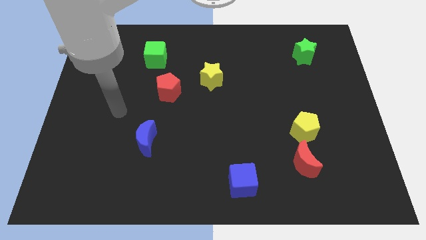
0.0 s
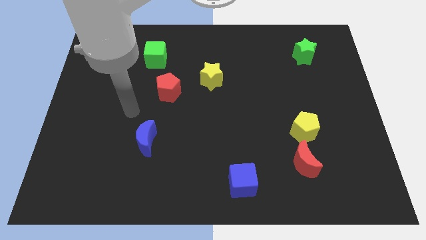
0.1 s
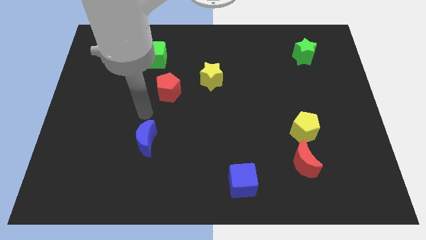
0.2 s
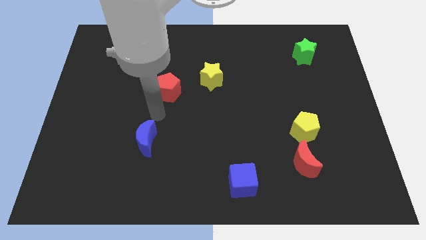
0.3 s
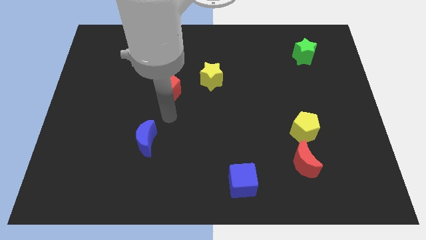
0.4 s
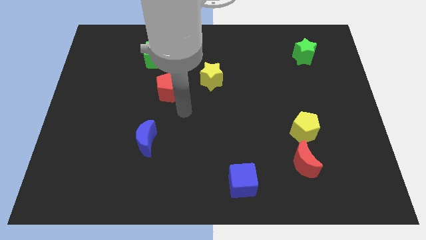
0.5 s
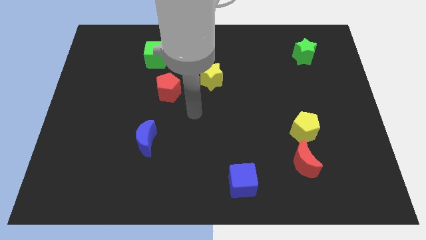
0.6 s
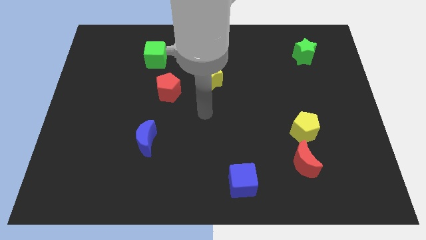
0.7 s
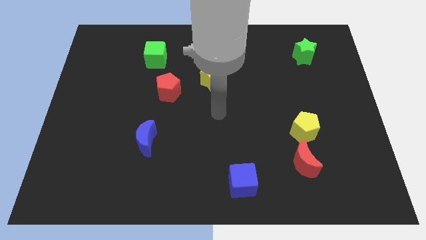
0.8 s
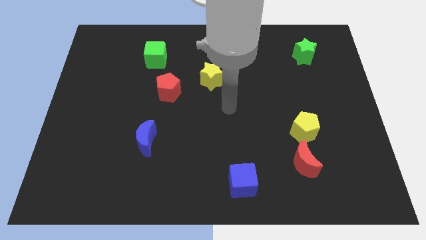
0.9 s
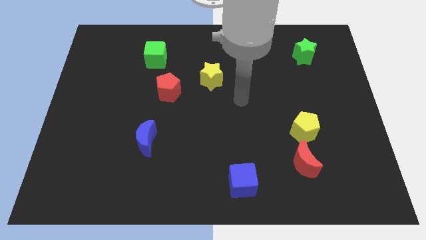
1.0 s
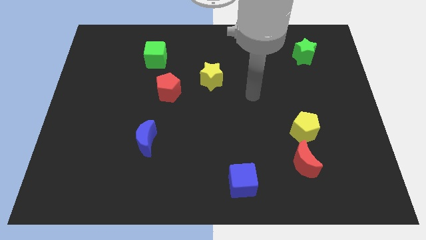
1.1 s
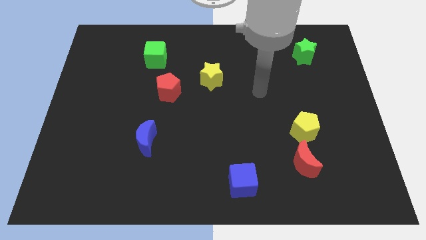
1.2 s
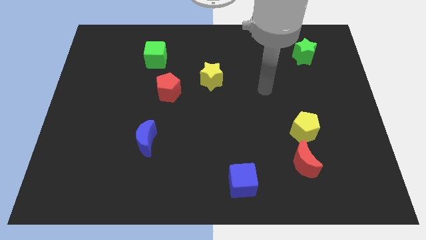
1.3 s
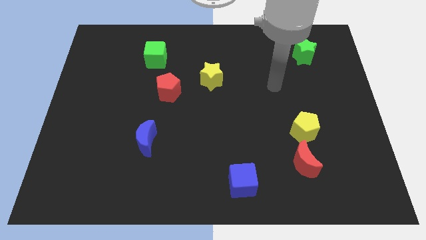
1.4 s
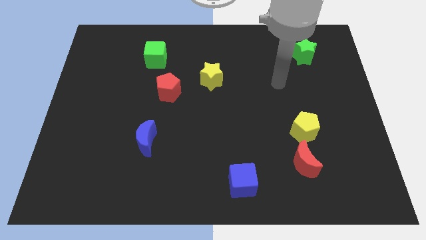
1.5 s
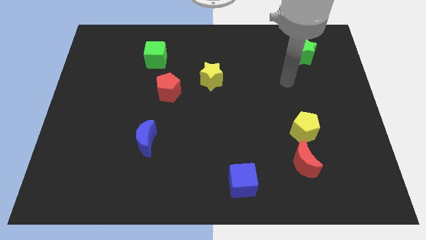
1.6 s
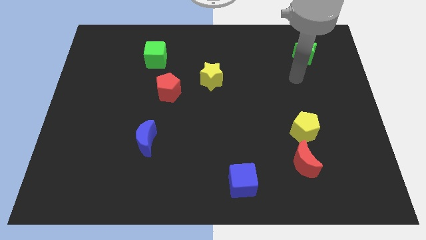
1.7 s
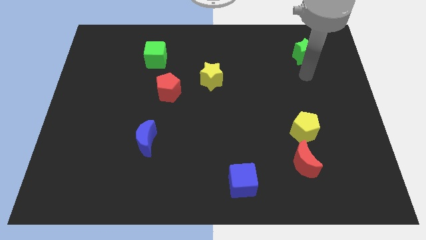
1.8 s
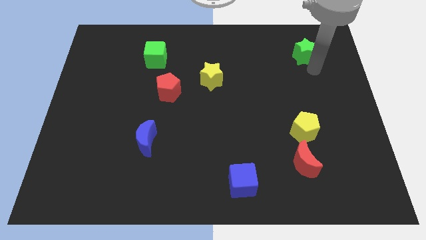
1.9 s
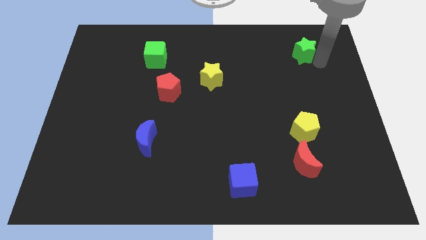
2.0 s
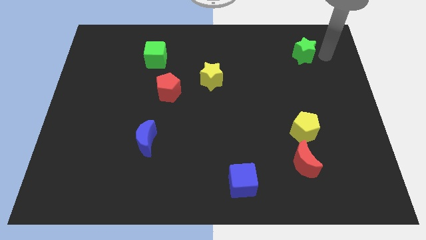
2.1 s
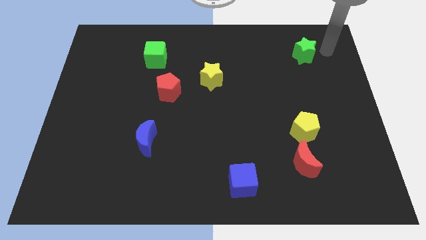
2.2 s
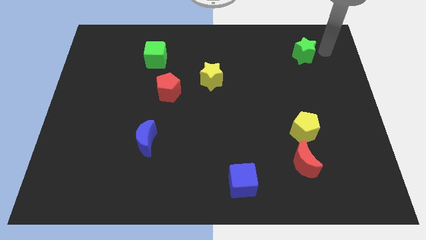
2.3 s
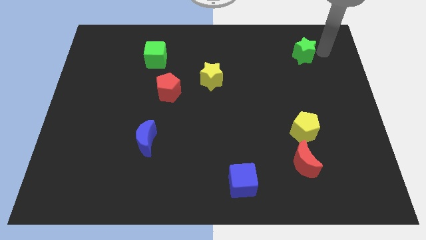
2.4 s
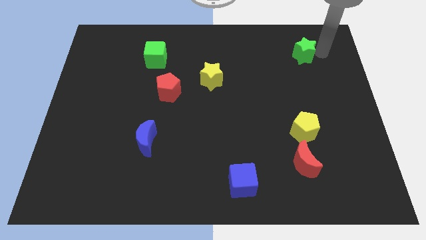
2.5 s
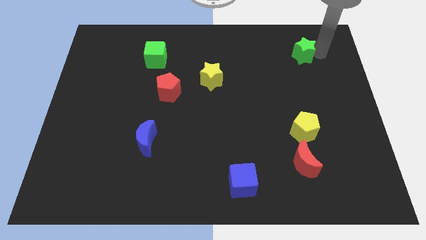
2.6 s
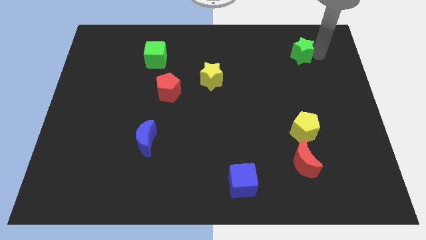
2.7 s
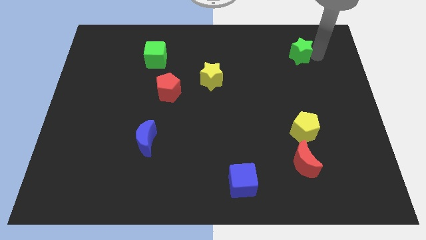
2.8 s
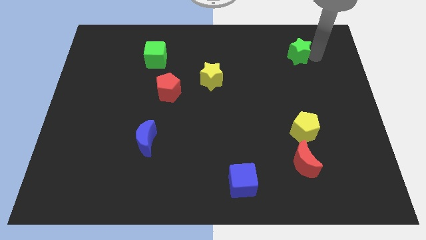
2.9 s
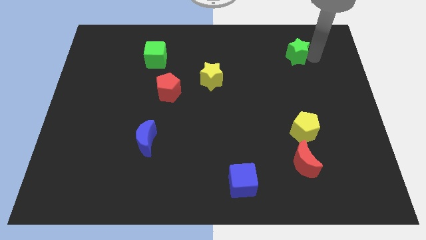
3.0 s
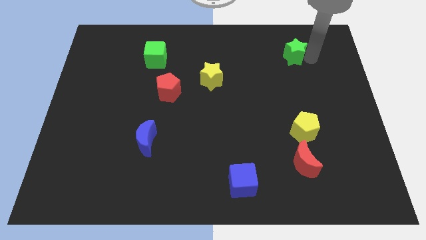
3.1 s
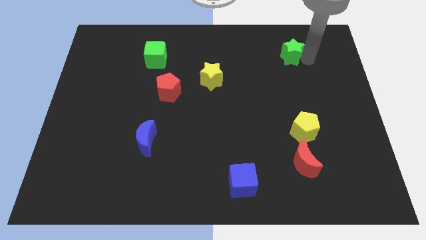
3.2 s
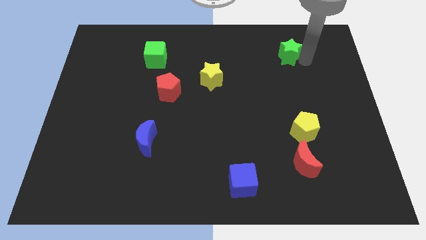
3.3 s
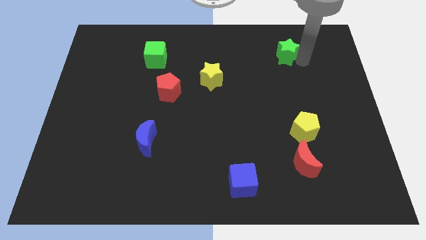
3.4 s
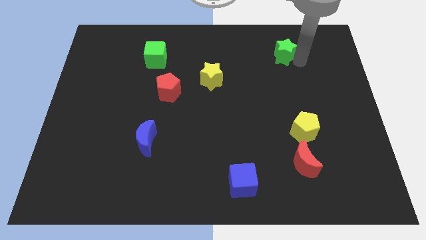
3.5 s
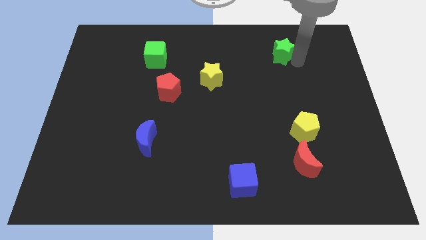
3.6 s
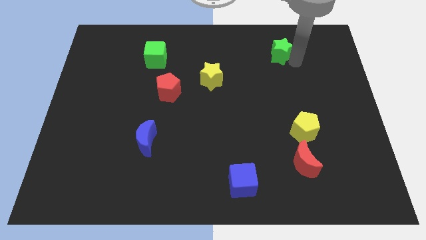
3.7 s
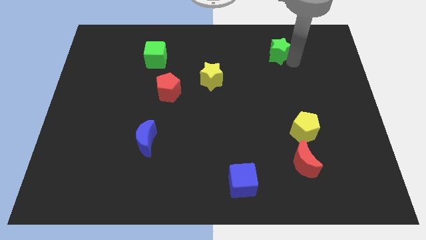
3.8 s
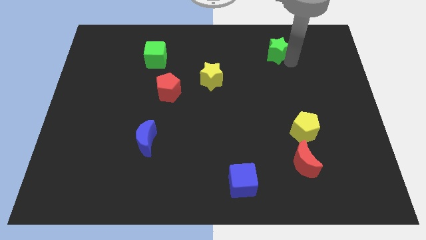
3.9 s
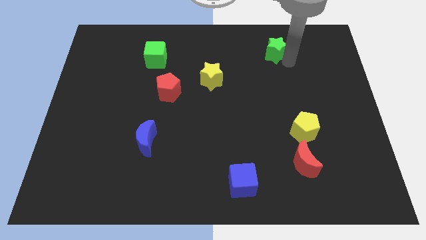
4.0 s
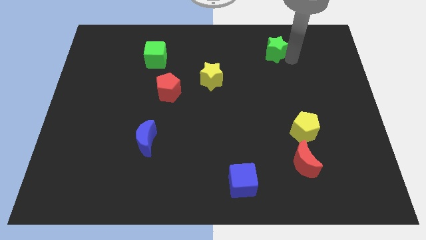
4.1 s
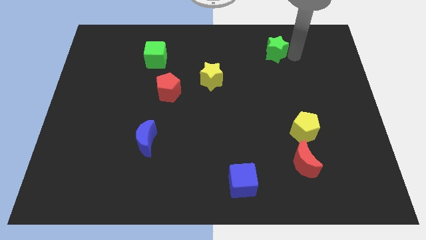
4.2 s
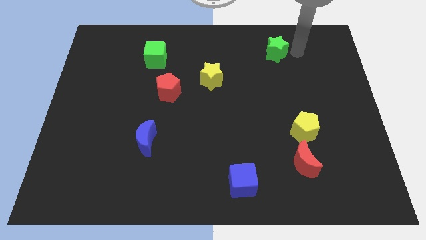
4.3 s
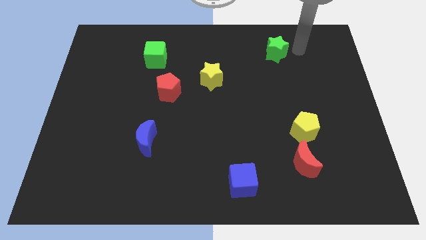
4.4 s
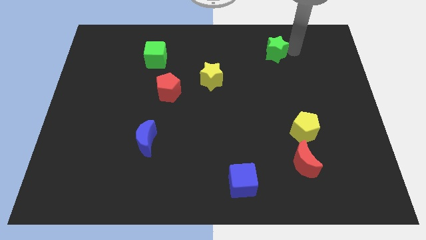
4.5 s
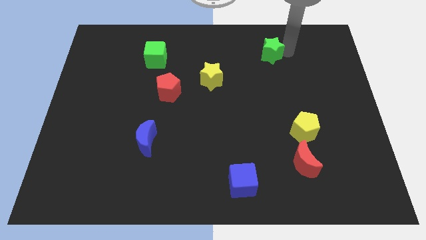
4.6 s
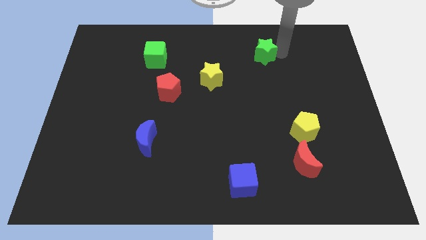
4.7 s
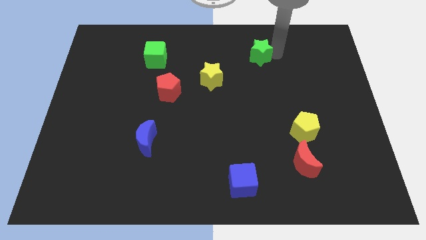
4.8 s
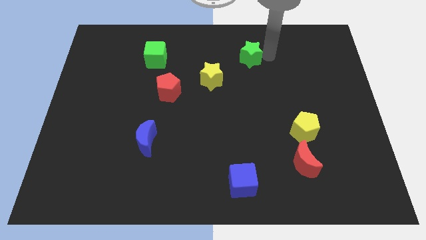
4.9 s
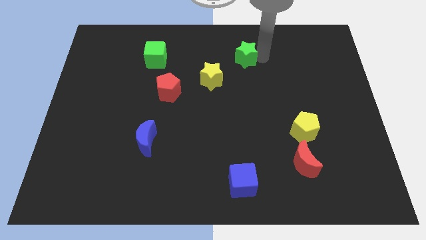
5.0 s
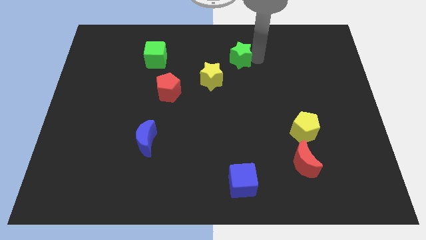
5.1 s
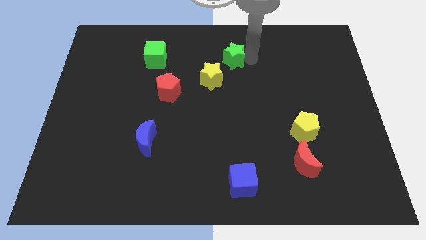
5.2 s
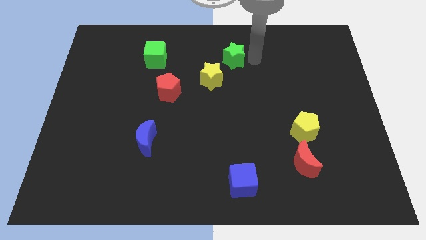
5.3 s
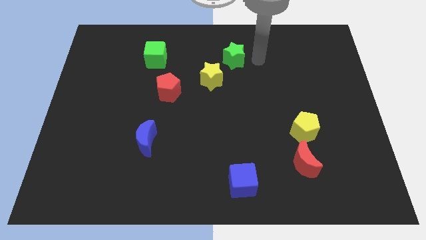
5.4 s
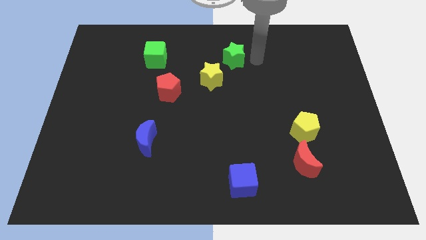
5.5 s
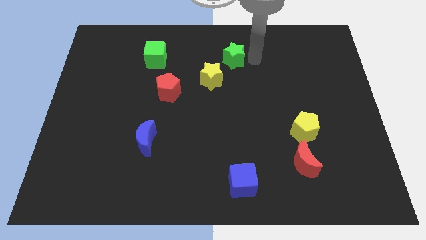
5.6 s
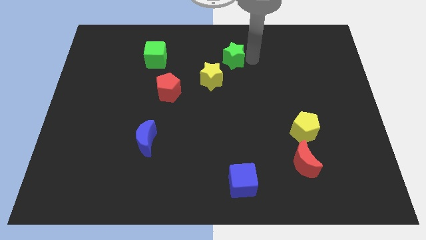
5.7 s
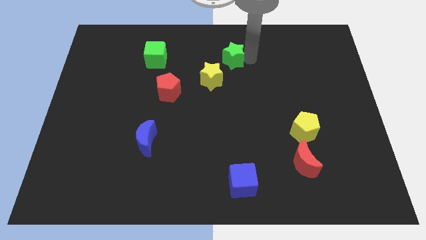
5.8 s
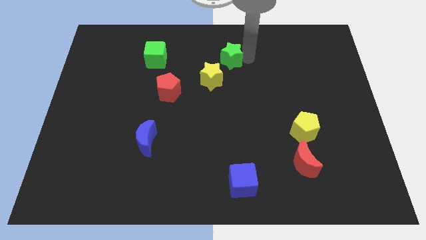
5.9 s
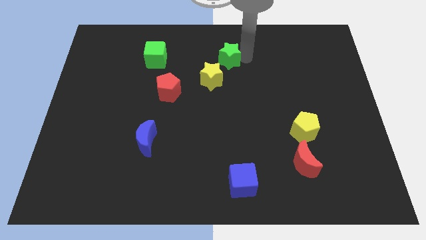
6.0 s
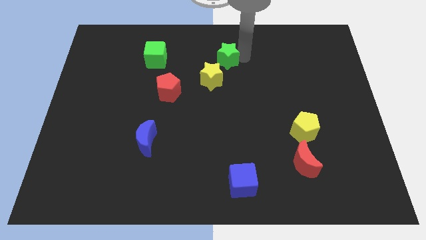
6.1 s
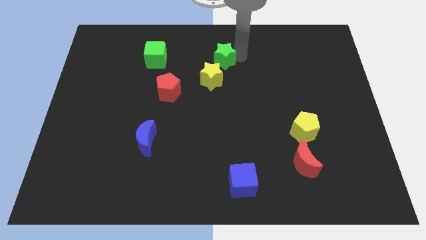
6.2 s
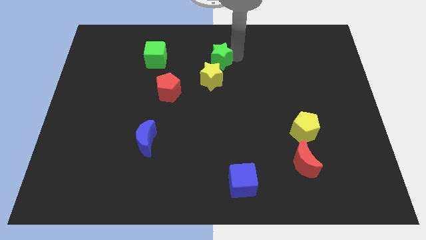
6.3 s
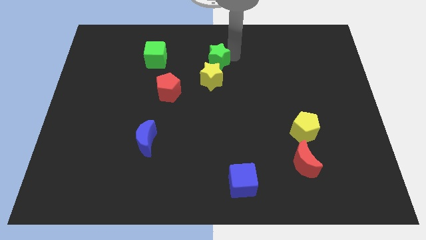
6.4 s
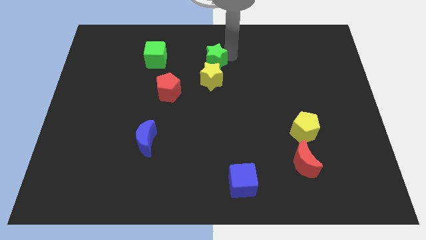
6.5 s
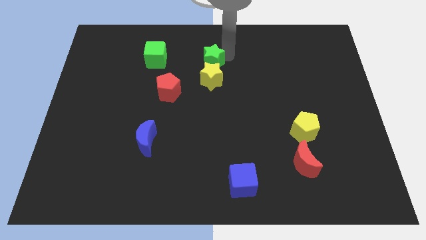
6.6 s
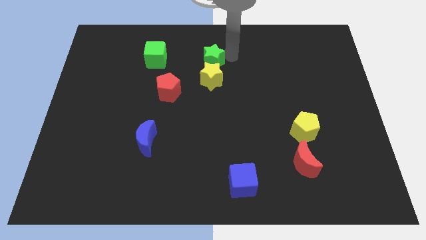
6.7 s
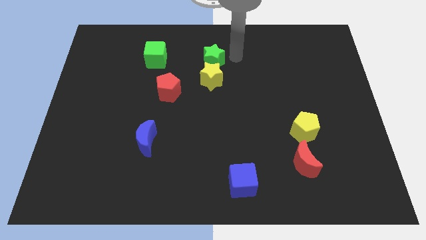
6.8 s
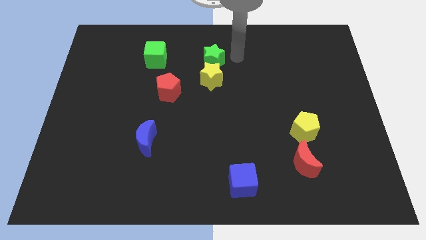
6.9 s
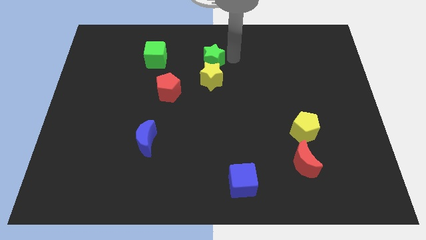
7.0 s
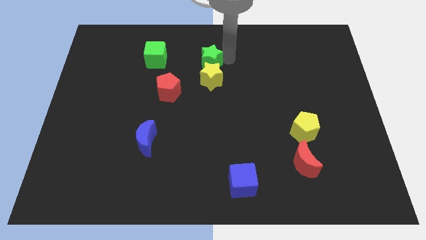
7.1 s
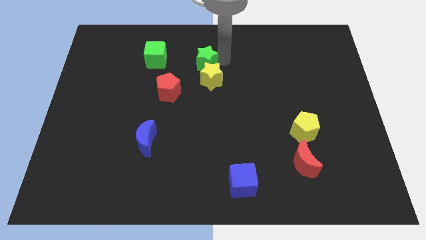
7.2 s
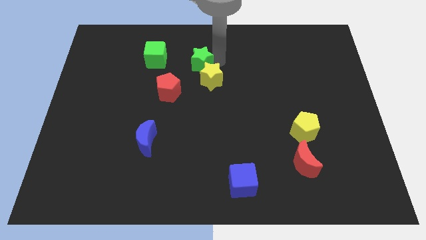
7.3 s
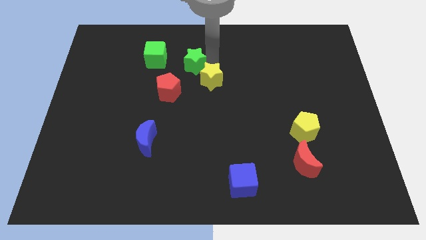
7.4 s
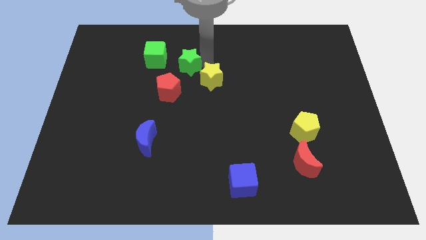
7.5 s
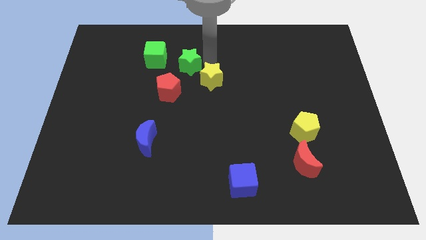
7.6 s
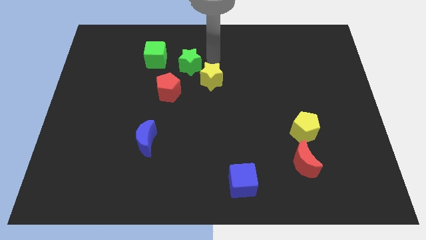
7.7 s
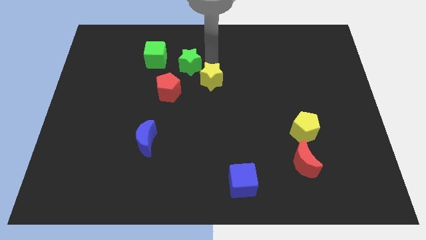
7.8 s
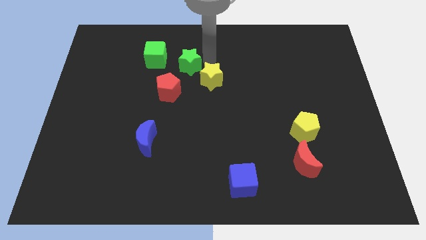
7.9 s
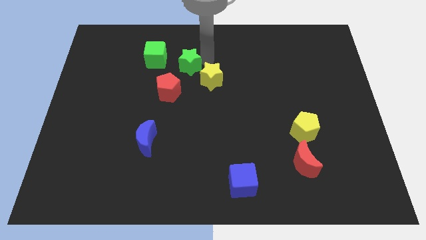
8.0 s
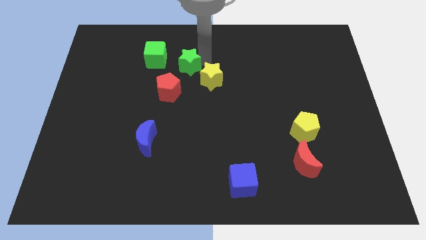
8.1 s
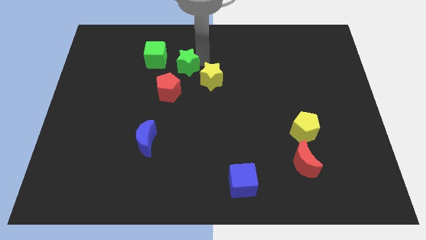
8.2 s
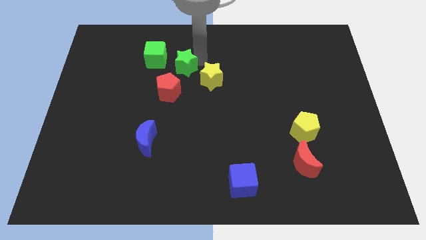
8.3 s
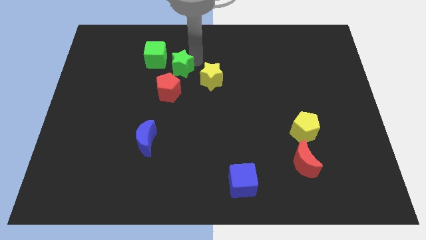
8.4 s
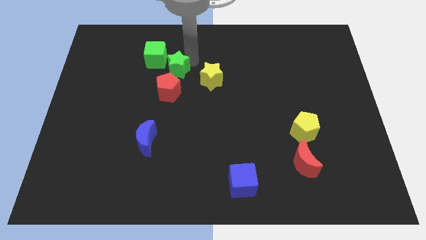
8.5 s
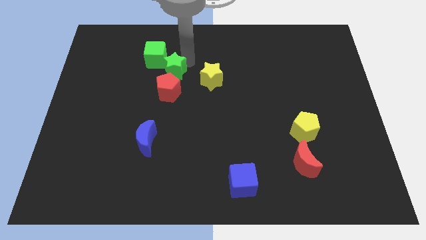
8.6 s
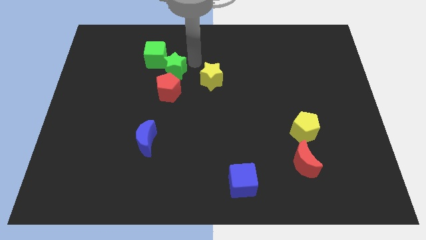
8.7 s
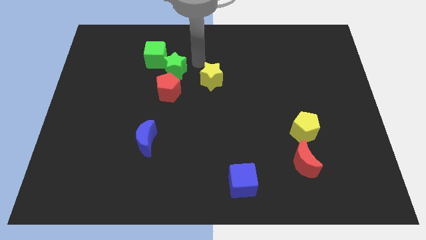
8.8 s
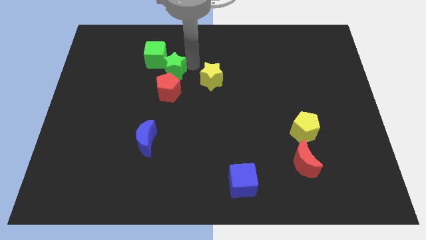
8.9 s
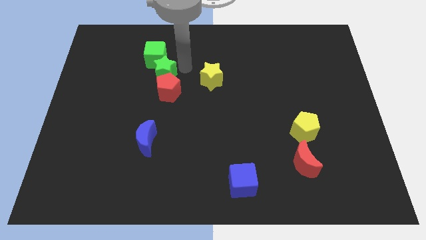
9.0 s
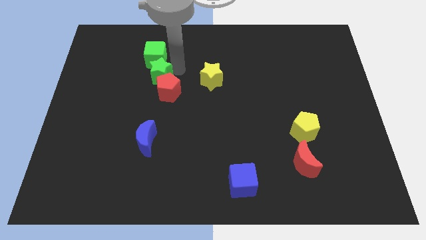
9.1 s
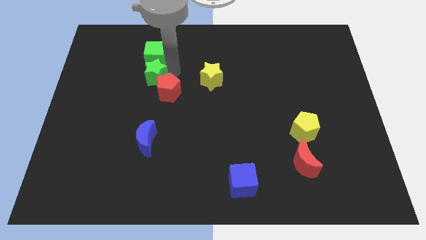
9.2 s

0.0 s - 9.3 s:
put the green star to the left side of the red pentagon
